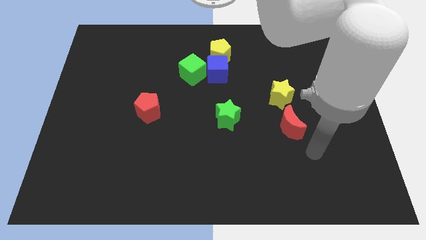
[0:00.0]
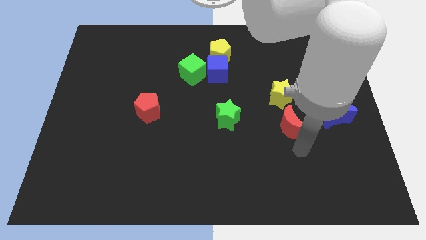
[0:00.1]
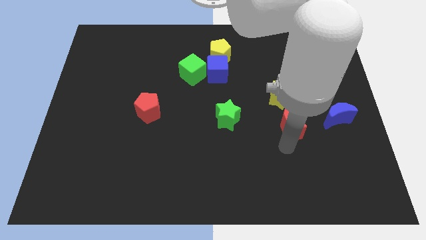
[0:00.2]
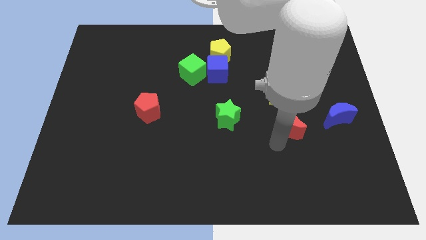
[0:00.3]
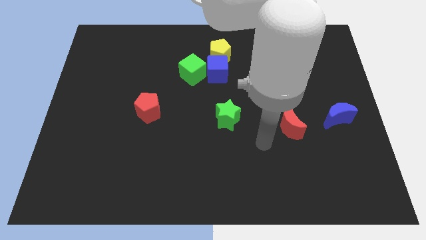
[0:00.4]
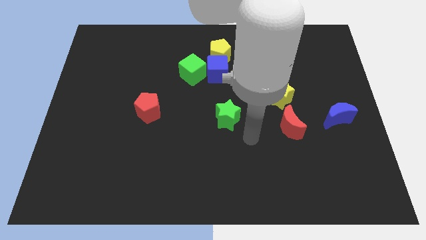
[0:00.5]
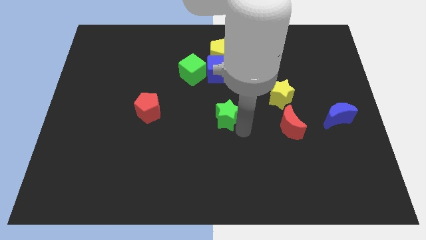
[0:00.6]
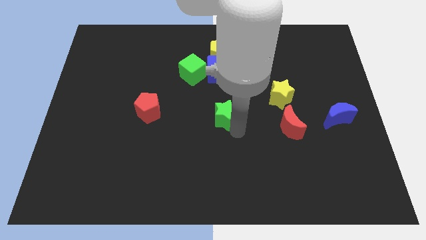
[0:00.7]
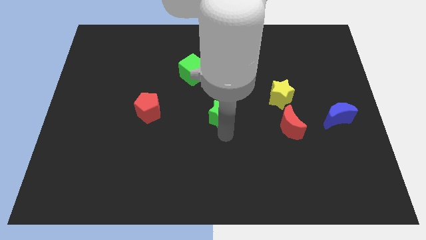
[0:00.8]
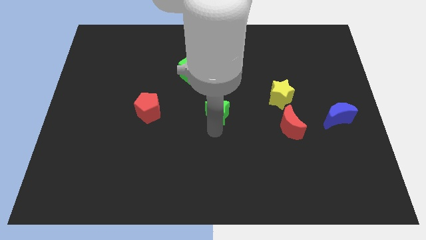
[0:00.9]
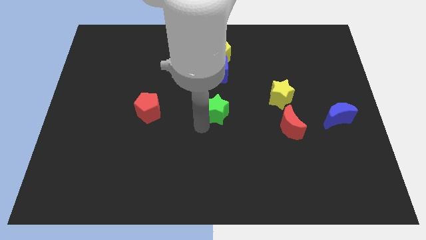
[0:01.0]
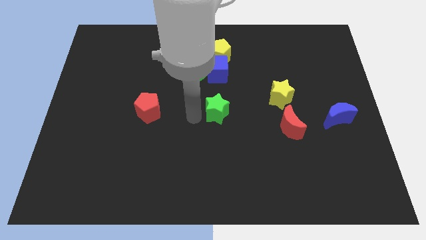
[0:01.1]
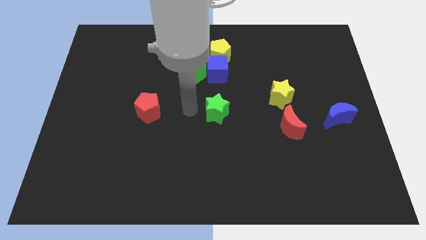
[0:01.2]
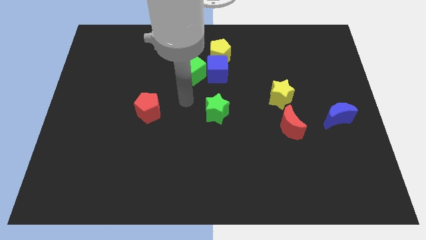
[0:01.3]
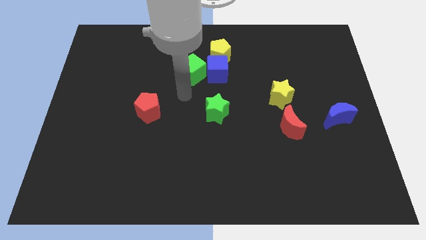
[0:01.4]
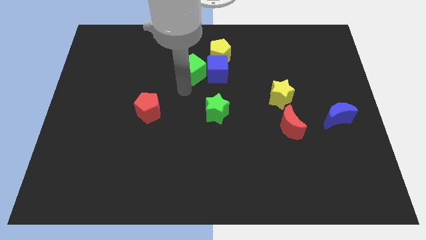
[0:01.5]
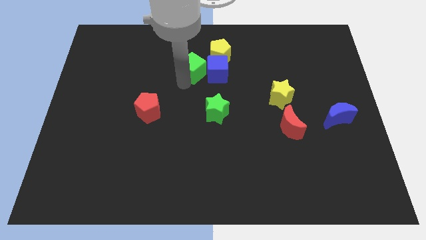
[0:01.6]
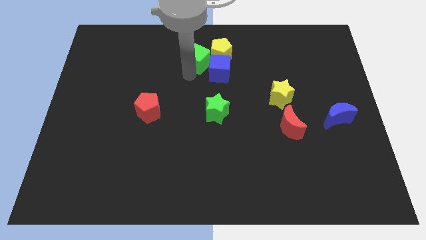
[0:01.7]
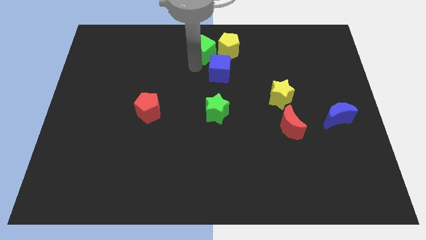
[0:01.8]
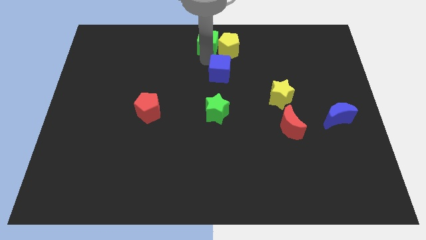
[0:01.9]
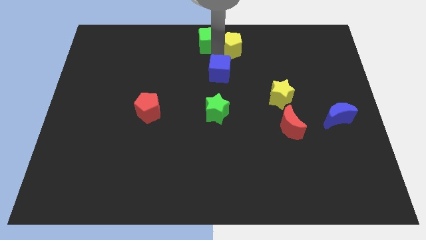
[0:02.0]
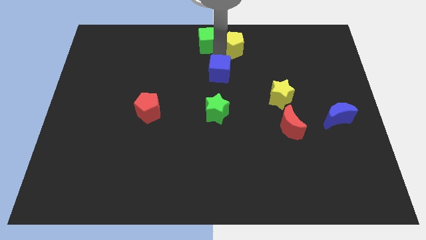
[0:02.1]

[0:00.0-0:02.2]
move the blue cube away from the yellow pentagon and green cube

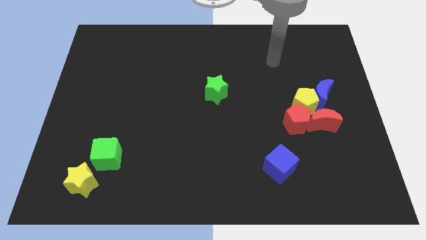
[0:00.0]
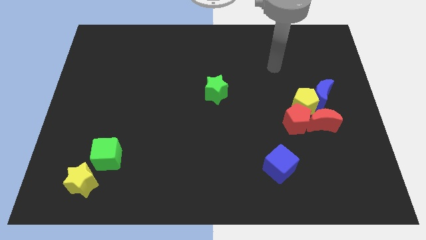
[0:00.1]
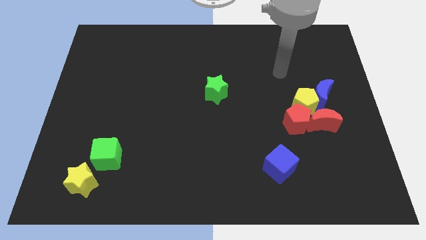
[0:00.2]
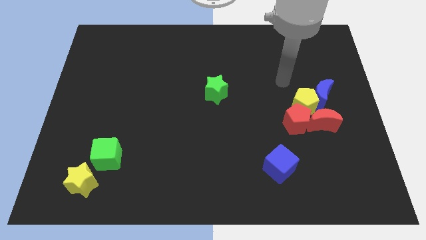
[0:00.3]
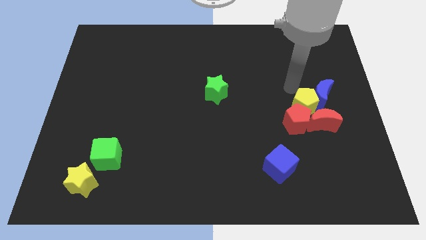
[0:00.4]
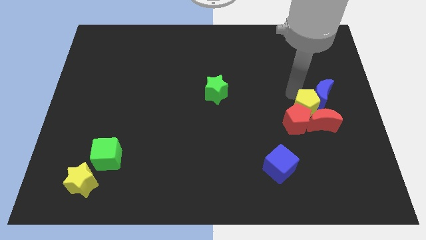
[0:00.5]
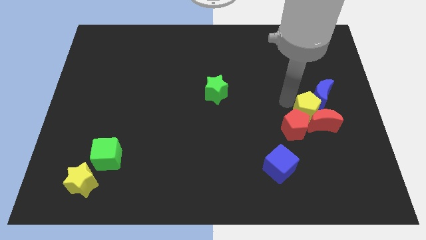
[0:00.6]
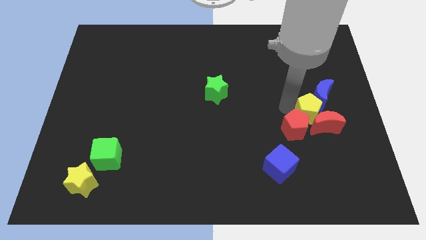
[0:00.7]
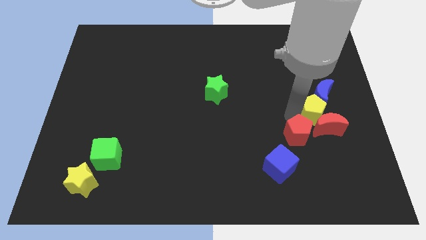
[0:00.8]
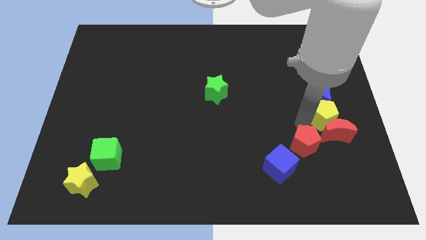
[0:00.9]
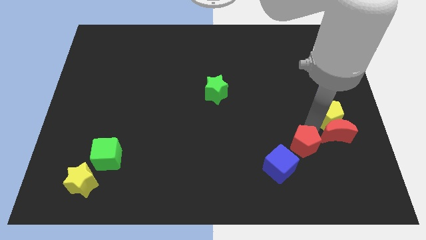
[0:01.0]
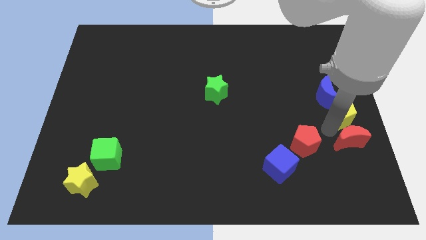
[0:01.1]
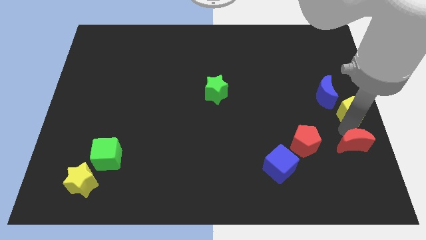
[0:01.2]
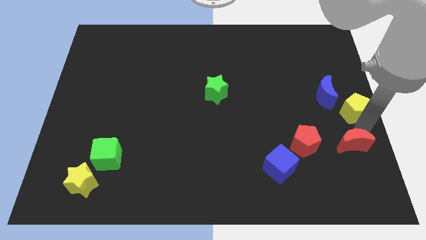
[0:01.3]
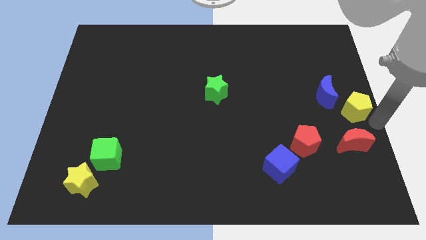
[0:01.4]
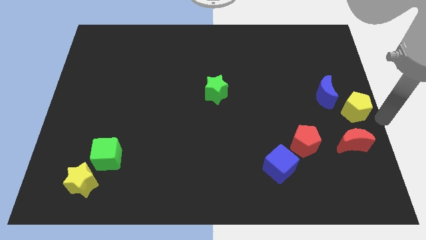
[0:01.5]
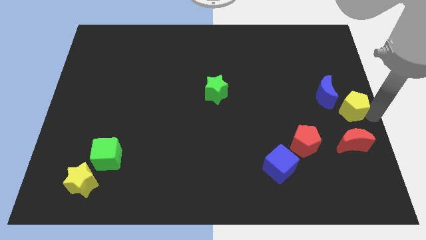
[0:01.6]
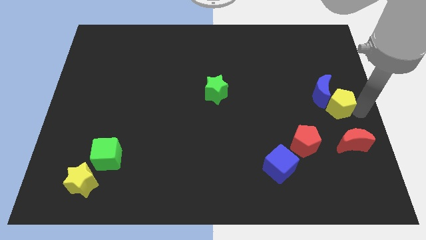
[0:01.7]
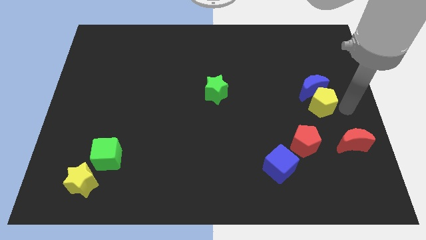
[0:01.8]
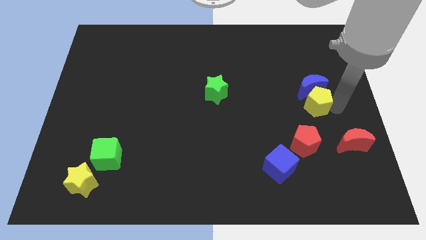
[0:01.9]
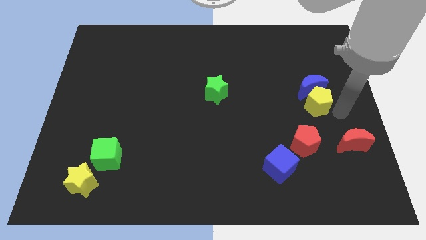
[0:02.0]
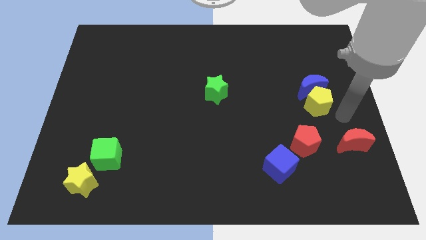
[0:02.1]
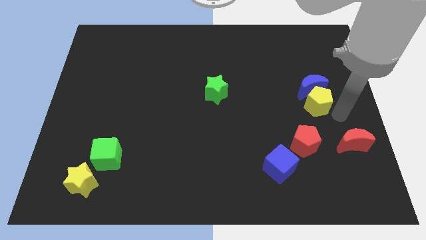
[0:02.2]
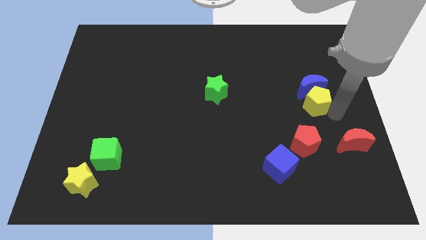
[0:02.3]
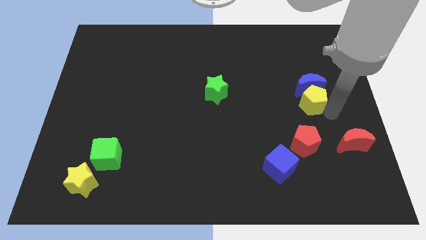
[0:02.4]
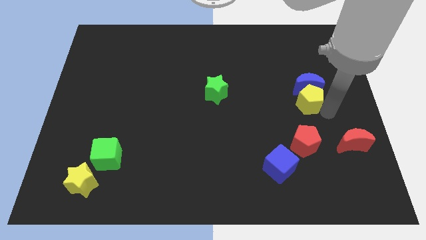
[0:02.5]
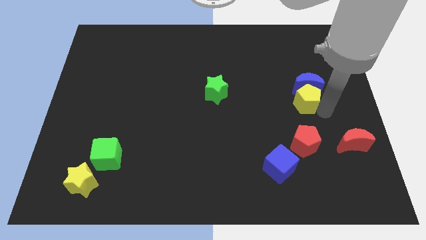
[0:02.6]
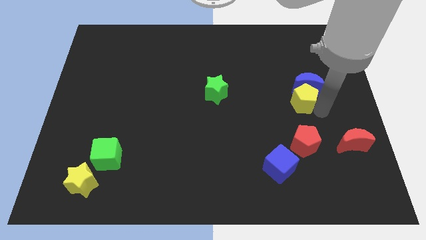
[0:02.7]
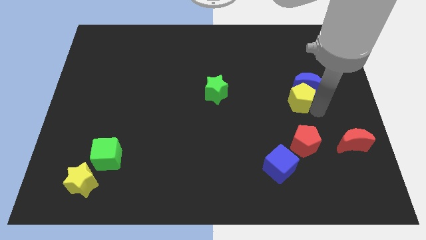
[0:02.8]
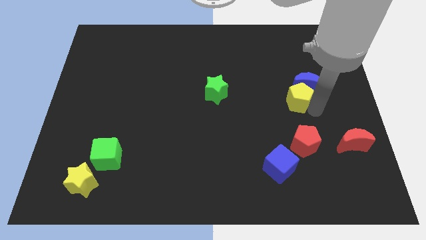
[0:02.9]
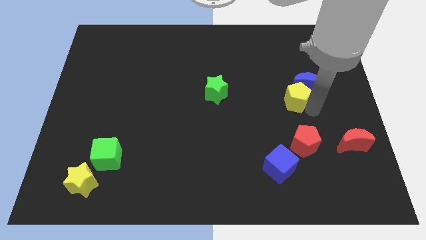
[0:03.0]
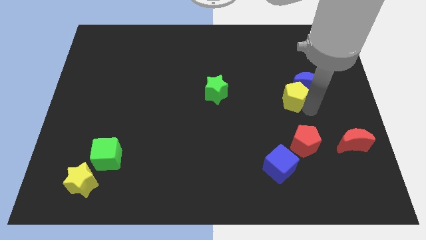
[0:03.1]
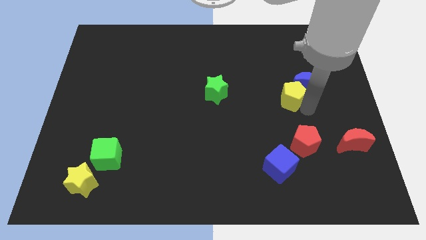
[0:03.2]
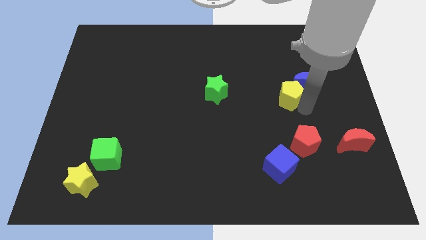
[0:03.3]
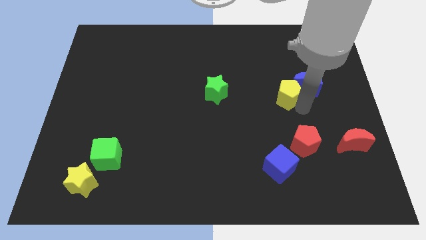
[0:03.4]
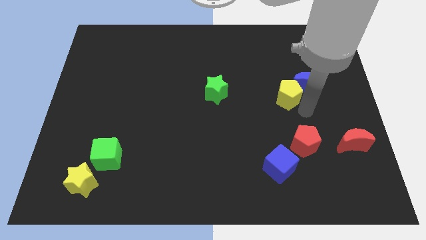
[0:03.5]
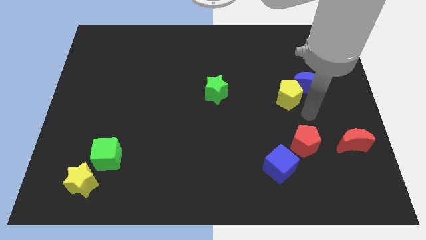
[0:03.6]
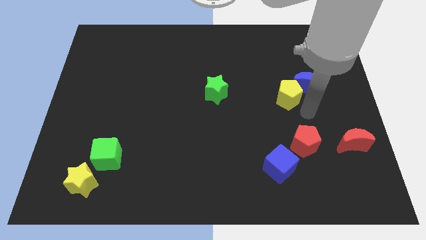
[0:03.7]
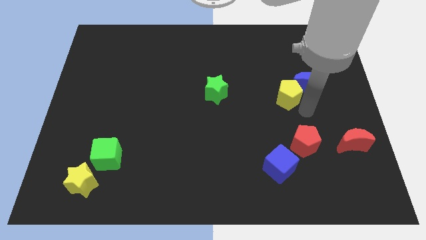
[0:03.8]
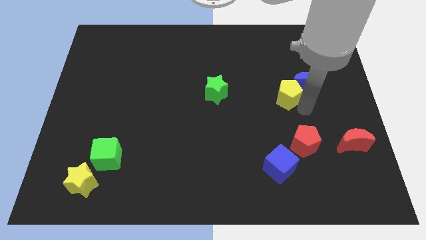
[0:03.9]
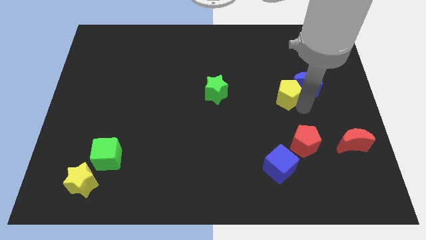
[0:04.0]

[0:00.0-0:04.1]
pull the yellow pentagon apart from the group

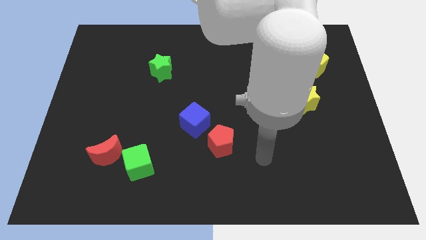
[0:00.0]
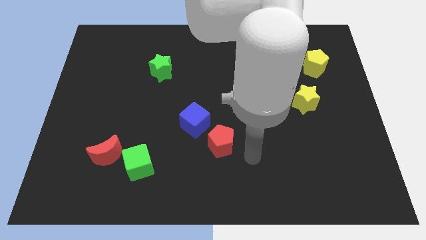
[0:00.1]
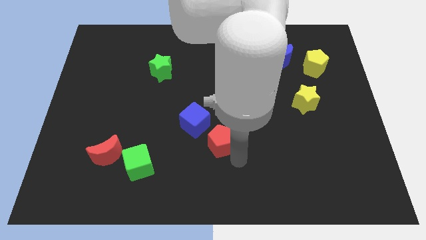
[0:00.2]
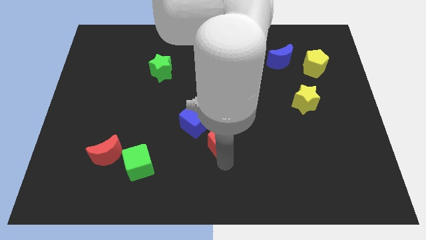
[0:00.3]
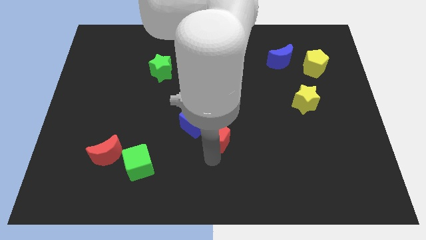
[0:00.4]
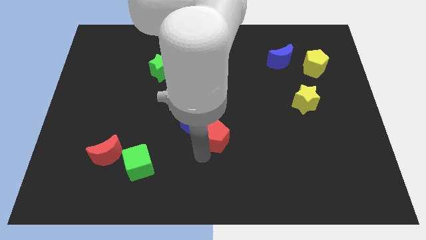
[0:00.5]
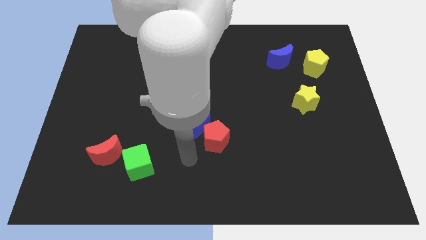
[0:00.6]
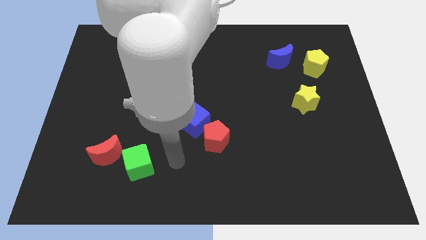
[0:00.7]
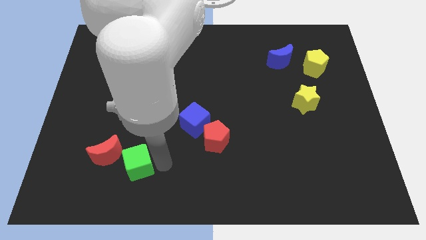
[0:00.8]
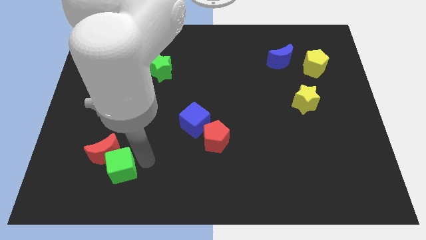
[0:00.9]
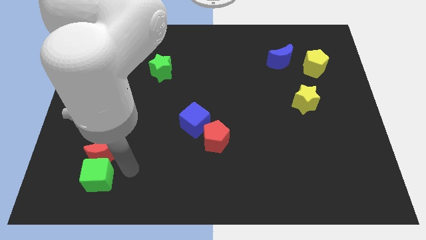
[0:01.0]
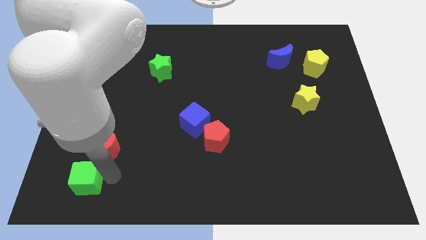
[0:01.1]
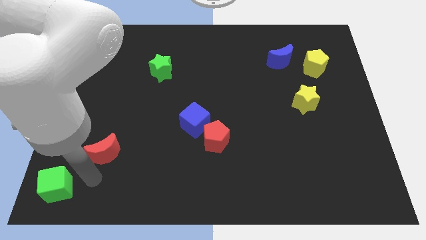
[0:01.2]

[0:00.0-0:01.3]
pull the red moon apart from the green cube

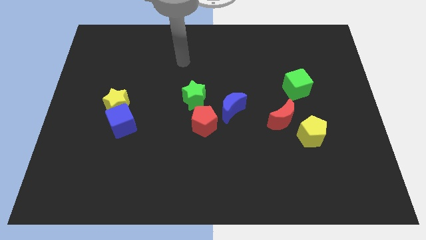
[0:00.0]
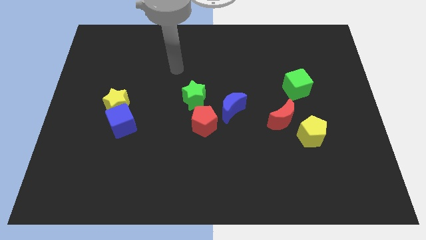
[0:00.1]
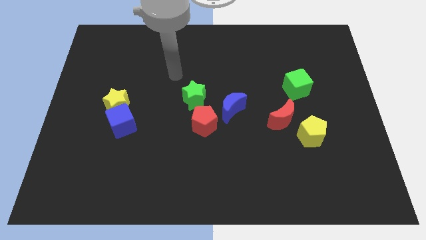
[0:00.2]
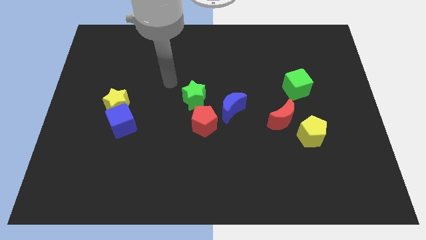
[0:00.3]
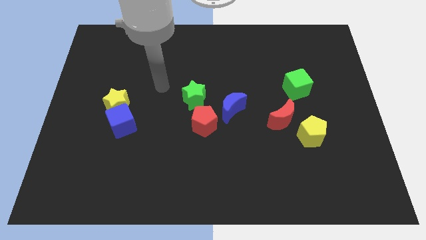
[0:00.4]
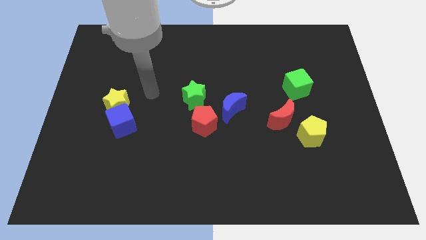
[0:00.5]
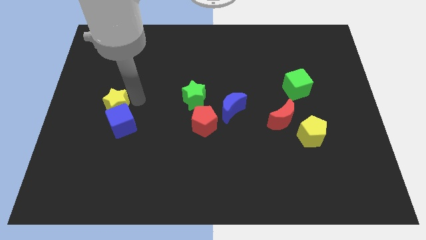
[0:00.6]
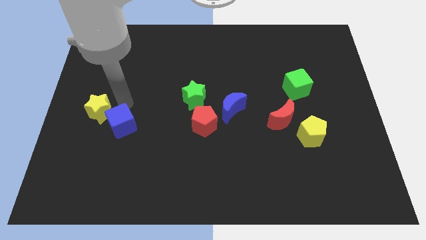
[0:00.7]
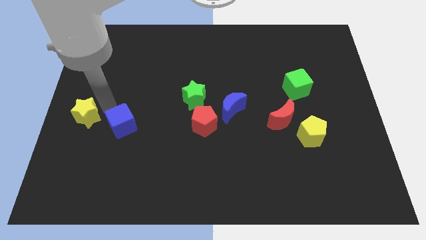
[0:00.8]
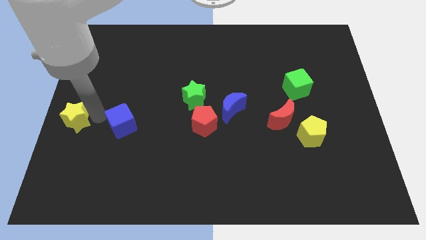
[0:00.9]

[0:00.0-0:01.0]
separate the blue cube from the yellow star

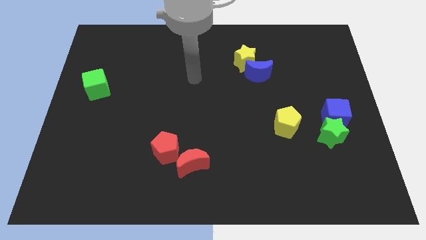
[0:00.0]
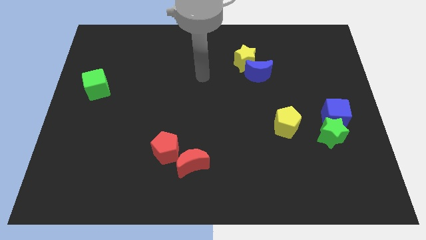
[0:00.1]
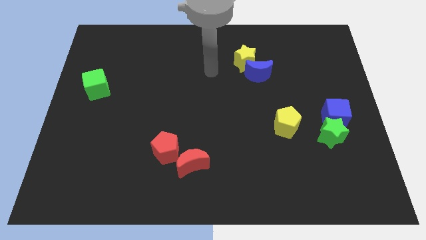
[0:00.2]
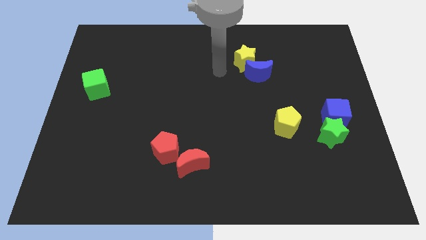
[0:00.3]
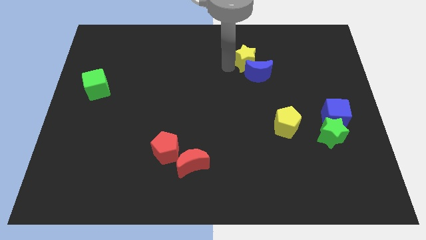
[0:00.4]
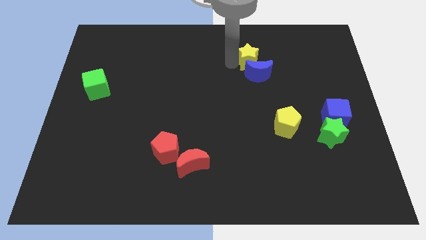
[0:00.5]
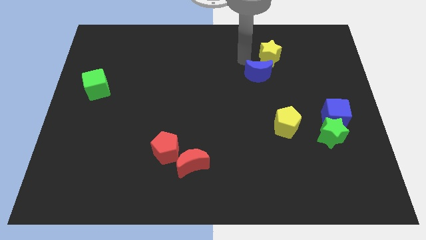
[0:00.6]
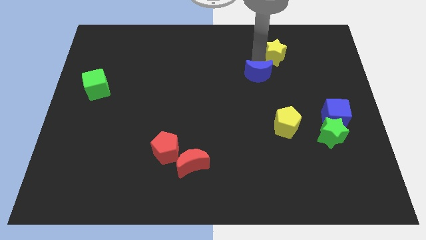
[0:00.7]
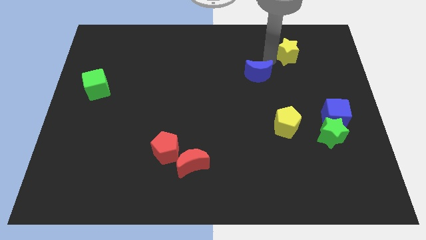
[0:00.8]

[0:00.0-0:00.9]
separate the blue moon from the yellow star
